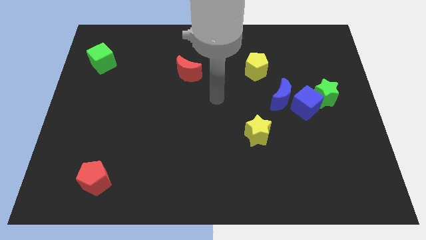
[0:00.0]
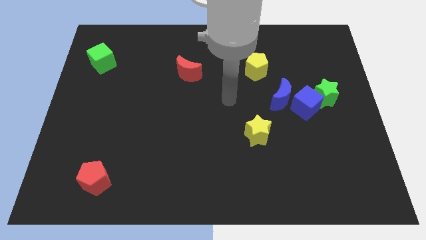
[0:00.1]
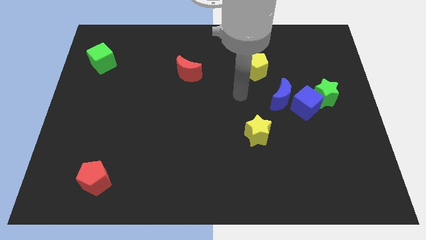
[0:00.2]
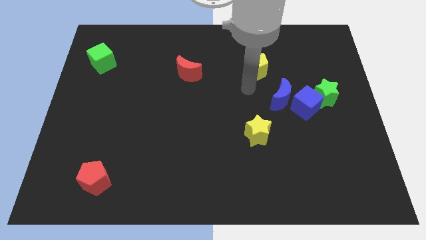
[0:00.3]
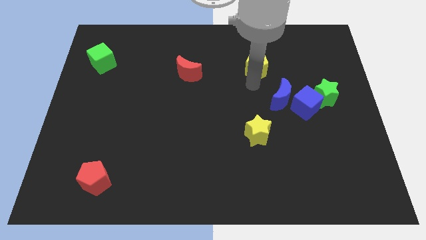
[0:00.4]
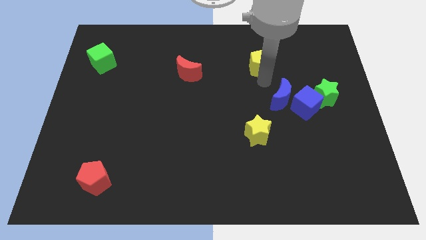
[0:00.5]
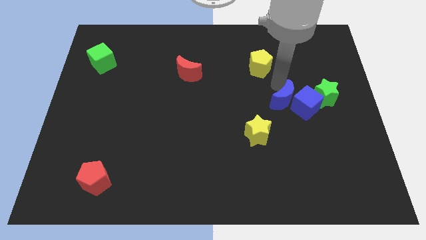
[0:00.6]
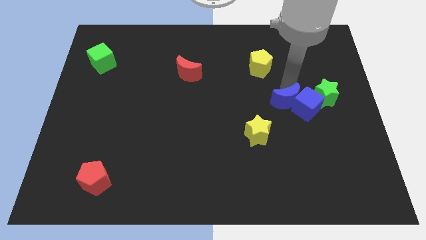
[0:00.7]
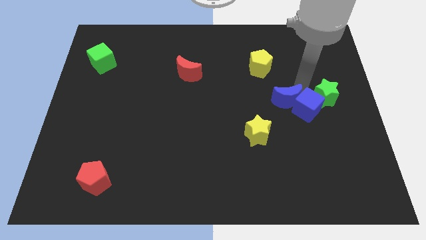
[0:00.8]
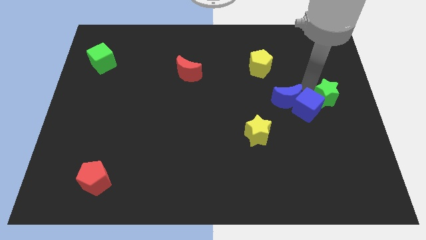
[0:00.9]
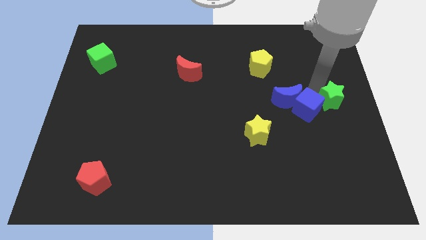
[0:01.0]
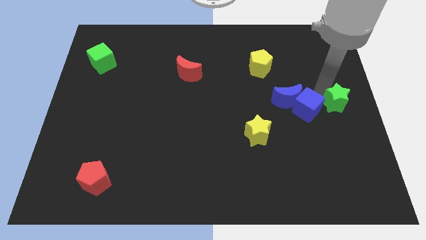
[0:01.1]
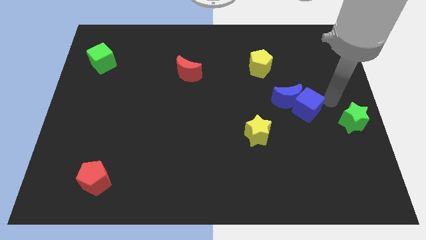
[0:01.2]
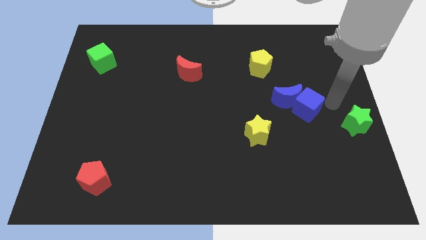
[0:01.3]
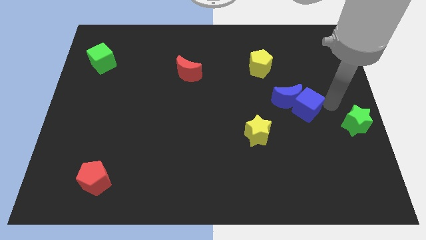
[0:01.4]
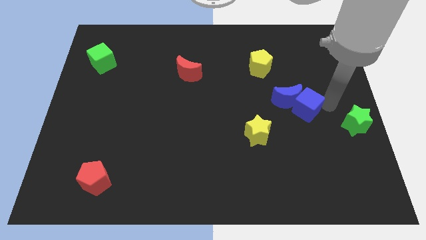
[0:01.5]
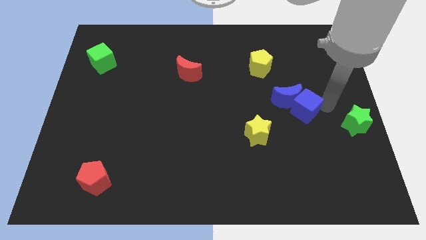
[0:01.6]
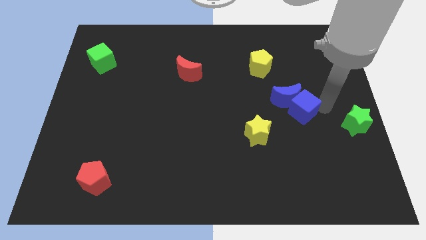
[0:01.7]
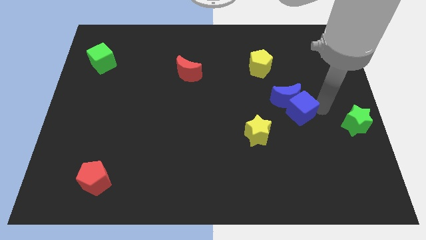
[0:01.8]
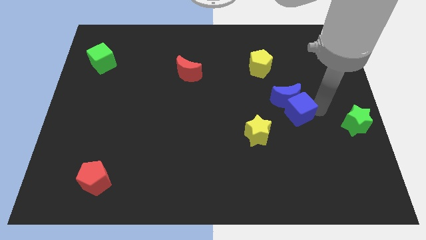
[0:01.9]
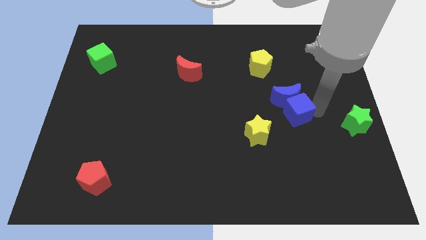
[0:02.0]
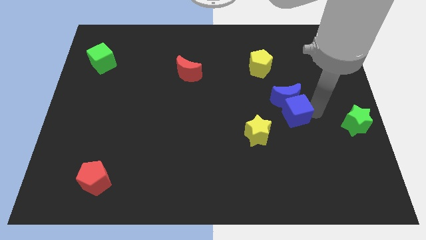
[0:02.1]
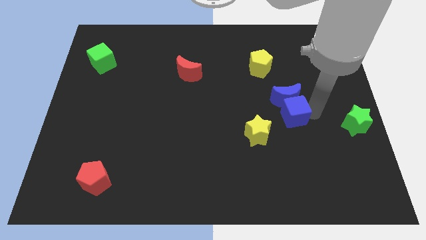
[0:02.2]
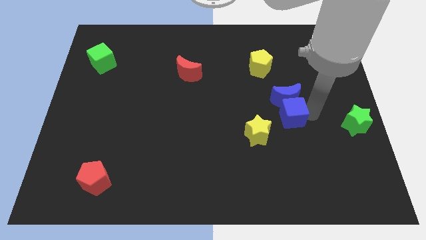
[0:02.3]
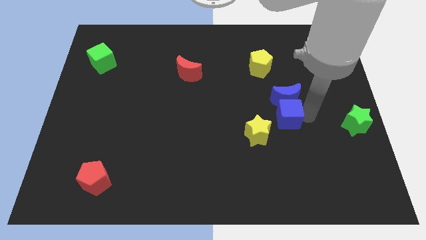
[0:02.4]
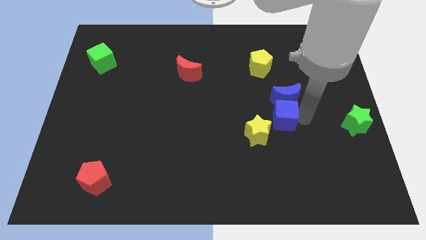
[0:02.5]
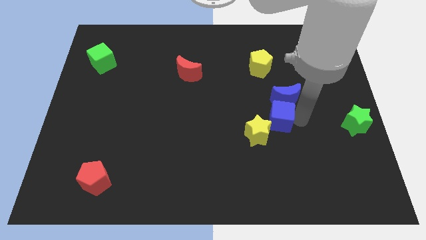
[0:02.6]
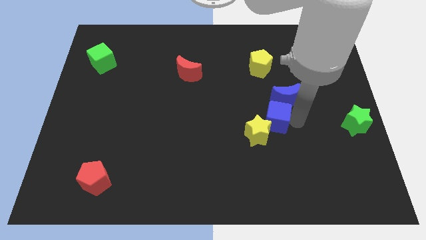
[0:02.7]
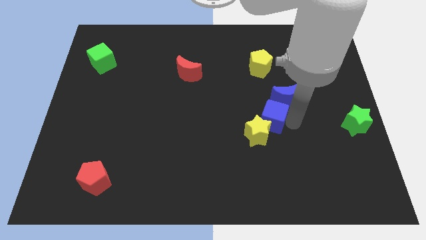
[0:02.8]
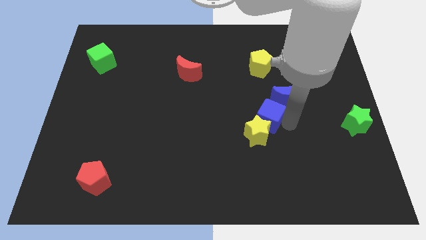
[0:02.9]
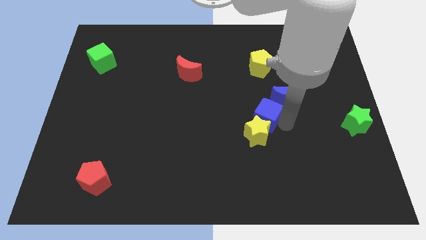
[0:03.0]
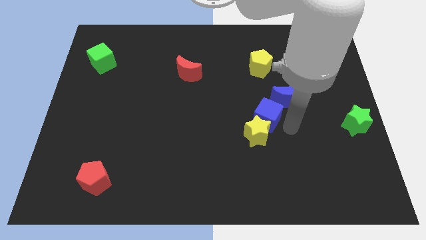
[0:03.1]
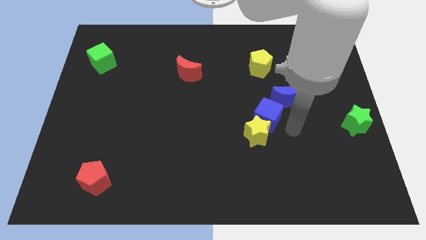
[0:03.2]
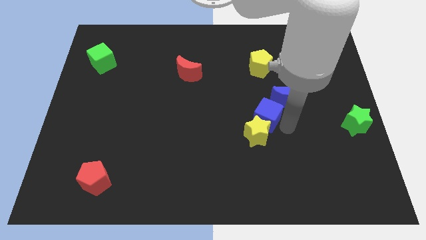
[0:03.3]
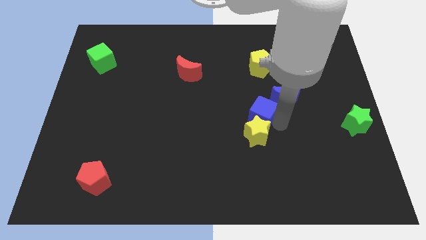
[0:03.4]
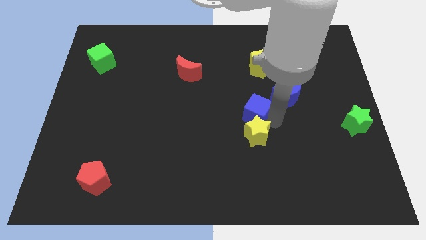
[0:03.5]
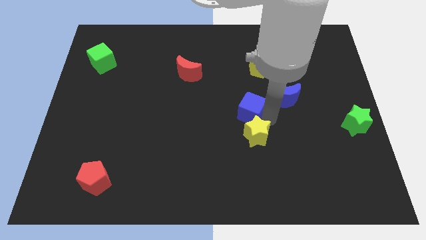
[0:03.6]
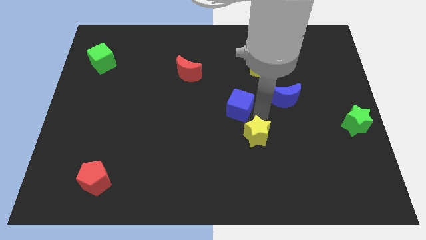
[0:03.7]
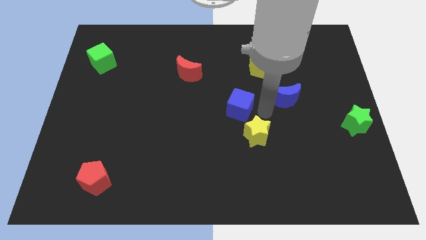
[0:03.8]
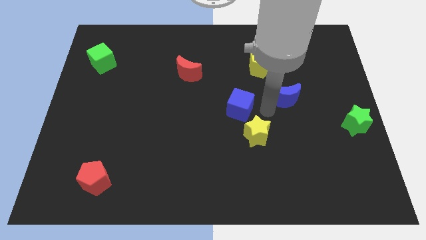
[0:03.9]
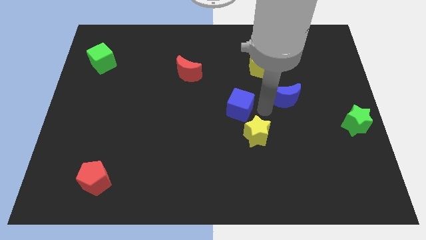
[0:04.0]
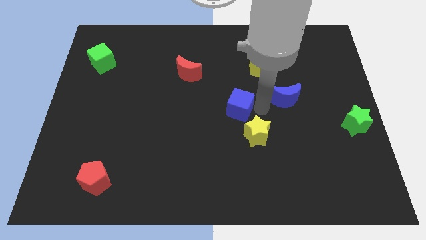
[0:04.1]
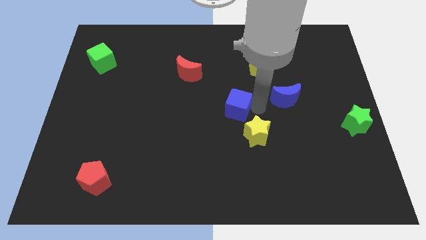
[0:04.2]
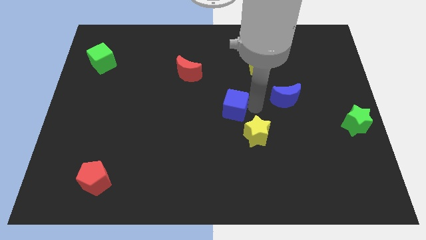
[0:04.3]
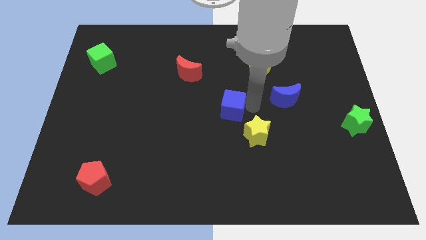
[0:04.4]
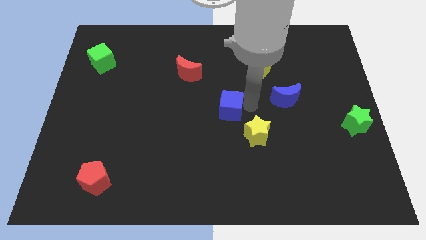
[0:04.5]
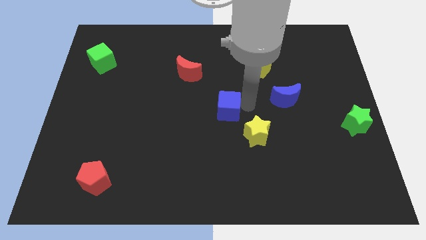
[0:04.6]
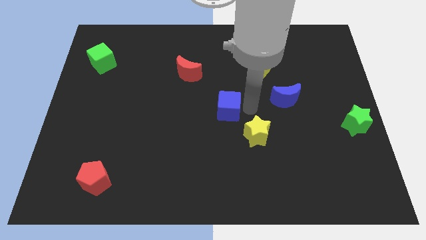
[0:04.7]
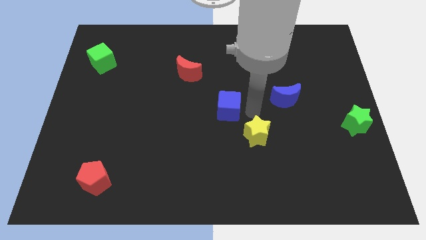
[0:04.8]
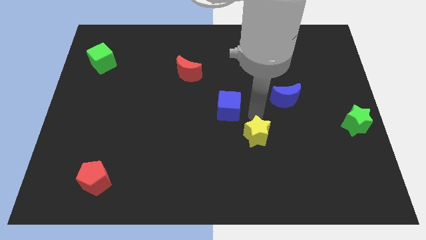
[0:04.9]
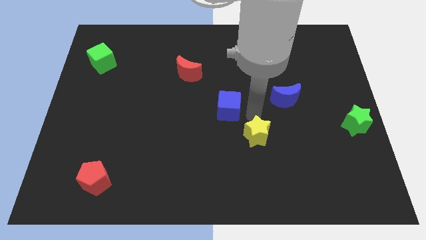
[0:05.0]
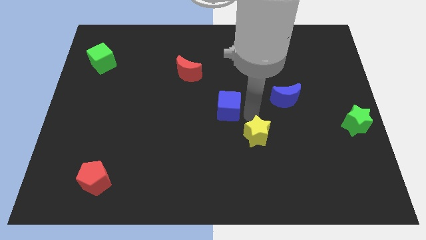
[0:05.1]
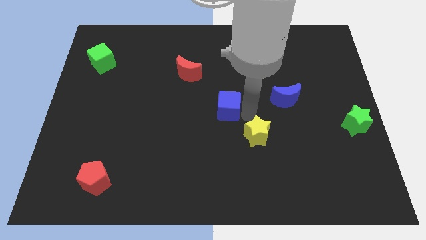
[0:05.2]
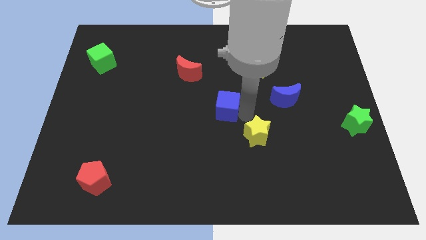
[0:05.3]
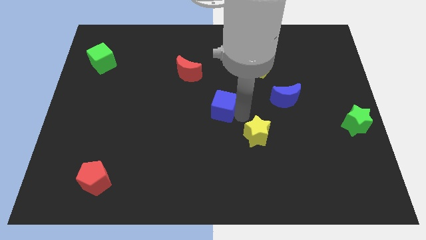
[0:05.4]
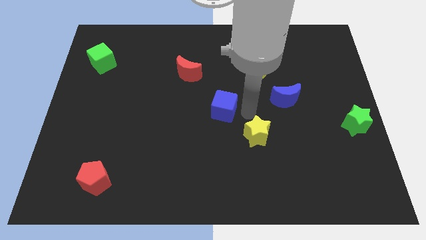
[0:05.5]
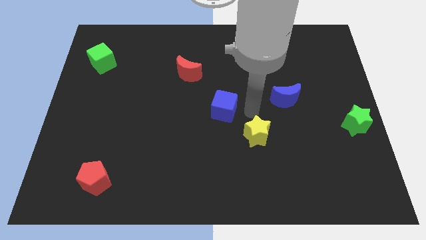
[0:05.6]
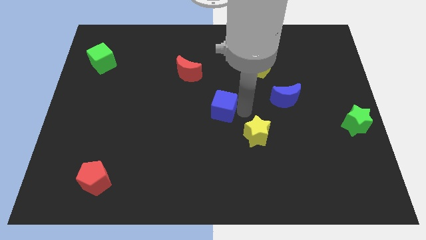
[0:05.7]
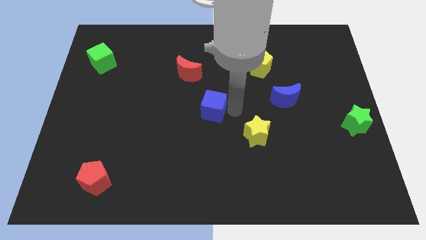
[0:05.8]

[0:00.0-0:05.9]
slide the blue cube left

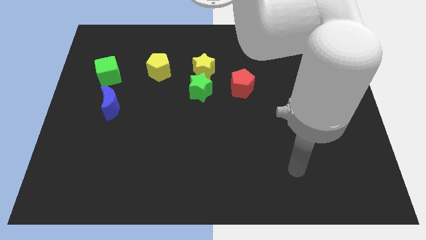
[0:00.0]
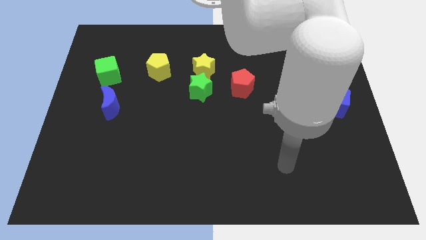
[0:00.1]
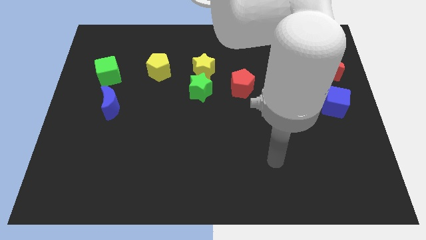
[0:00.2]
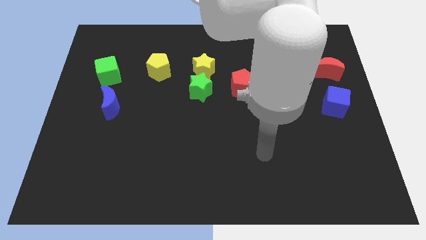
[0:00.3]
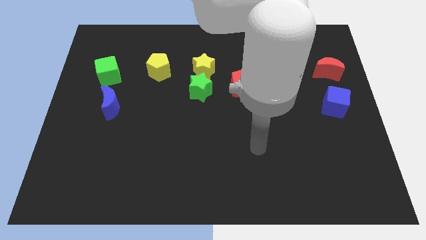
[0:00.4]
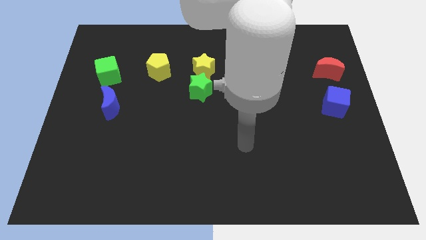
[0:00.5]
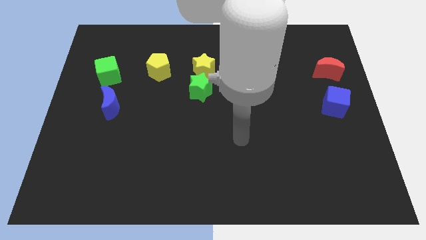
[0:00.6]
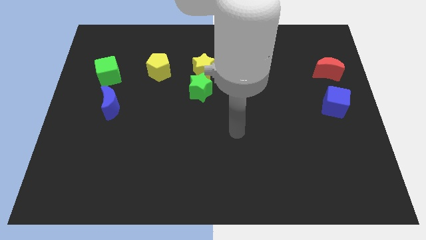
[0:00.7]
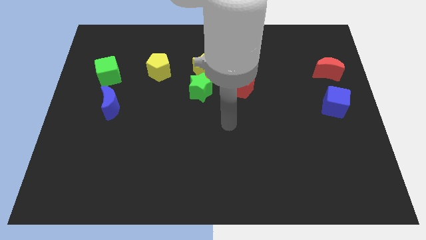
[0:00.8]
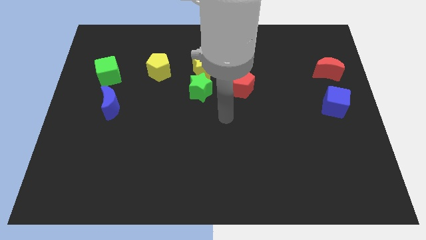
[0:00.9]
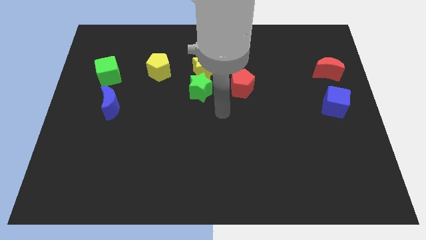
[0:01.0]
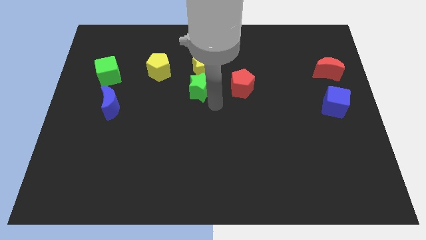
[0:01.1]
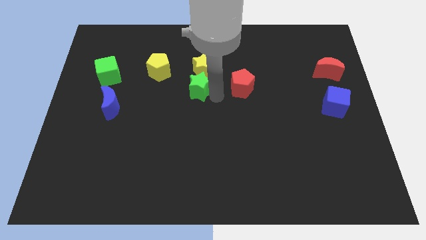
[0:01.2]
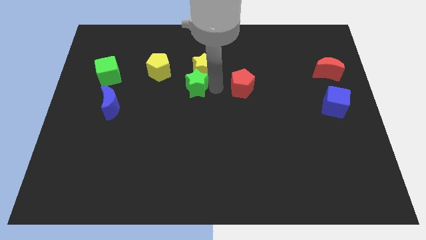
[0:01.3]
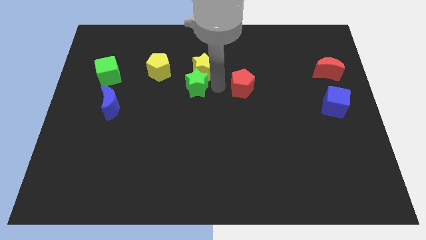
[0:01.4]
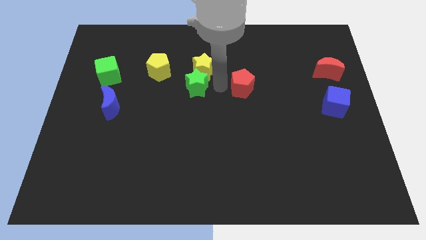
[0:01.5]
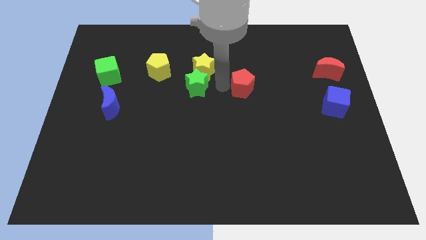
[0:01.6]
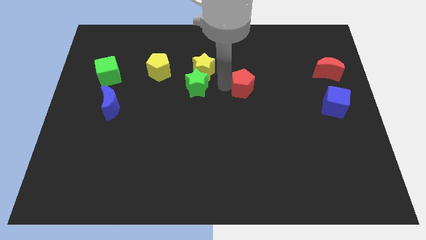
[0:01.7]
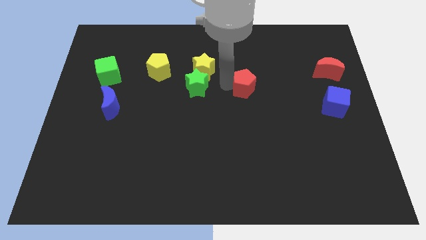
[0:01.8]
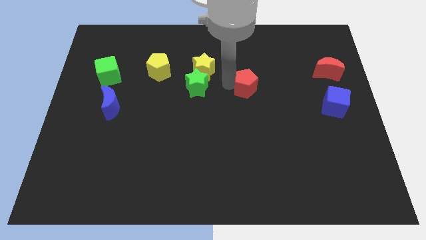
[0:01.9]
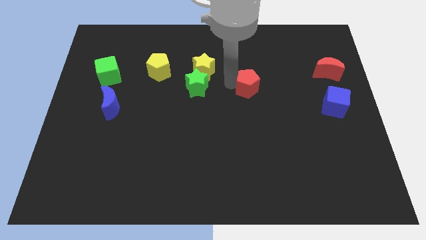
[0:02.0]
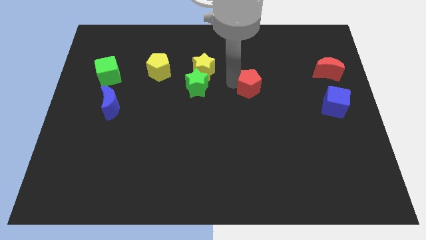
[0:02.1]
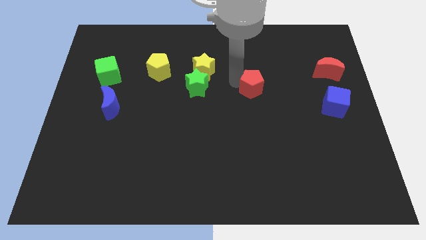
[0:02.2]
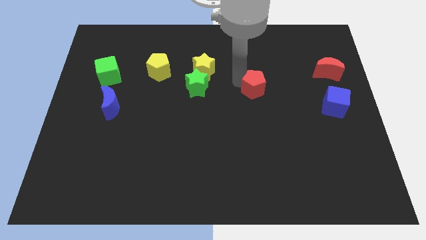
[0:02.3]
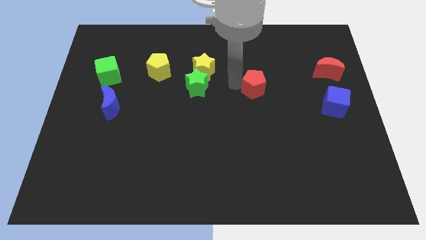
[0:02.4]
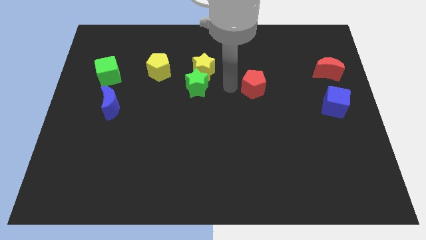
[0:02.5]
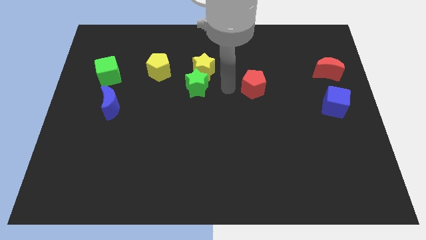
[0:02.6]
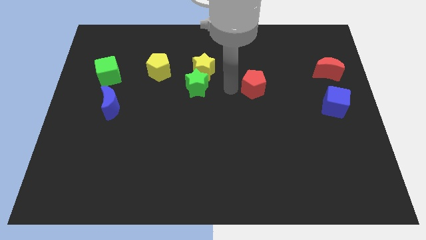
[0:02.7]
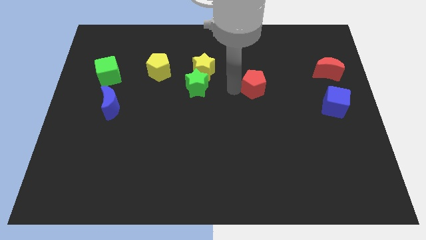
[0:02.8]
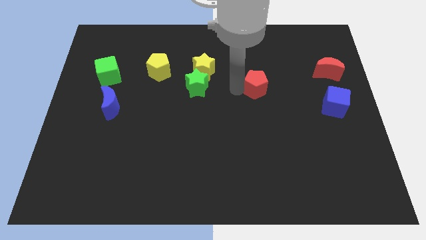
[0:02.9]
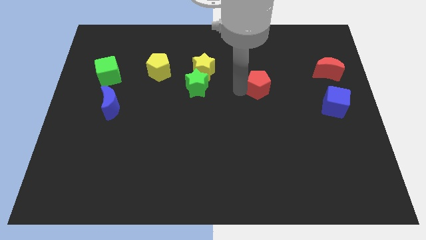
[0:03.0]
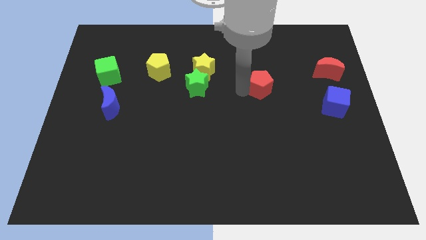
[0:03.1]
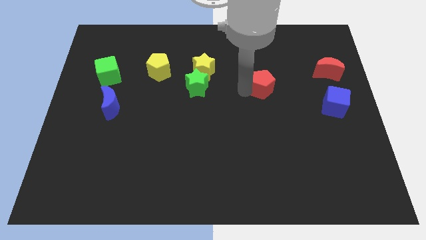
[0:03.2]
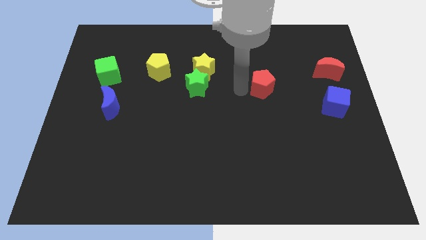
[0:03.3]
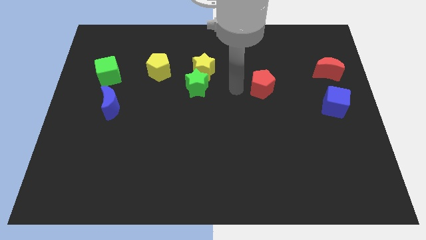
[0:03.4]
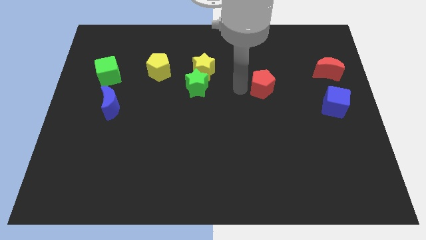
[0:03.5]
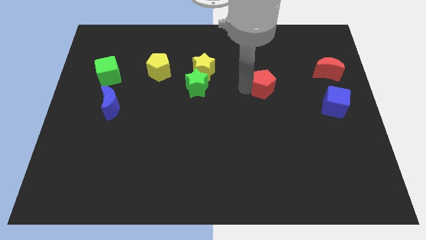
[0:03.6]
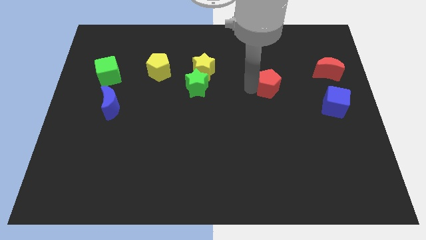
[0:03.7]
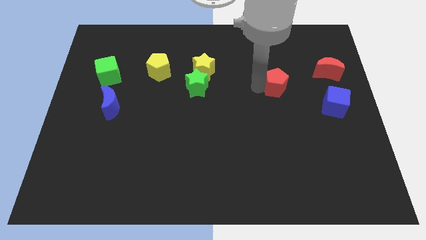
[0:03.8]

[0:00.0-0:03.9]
slightly push the red pentagon right
